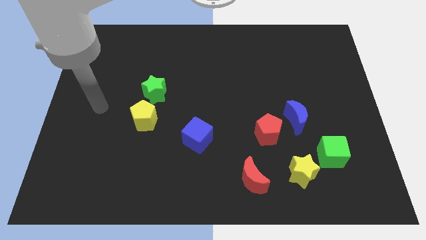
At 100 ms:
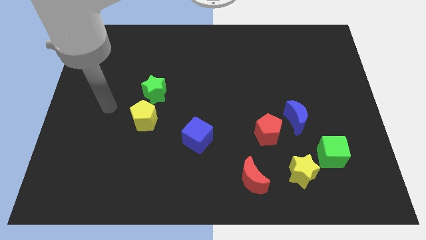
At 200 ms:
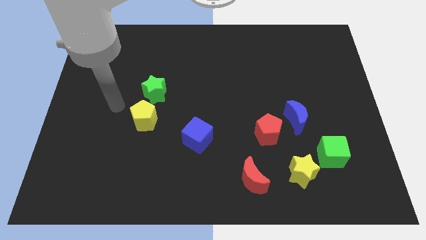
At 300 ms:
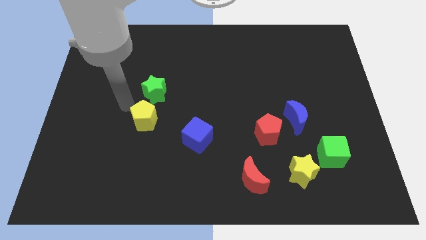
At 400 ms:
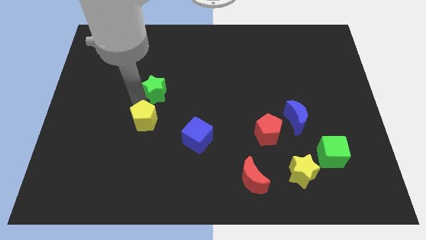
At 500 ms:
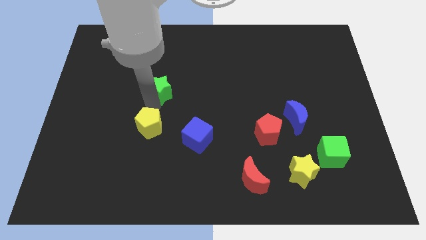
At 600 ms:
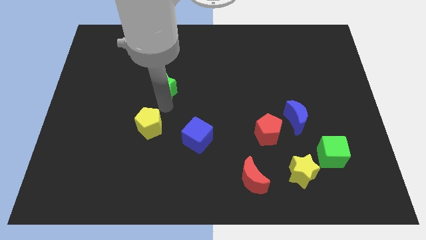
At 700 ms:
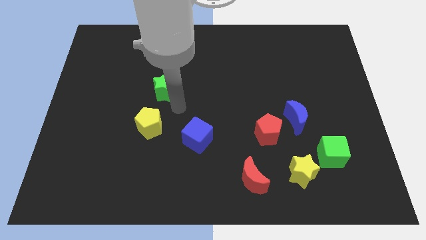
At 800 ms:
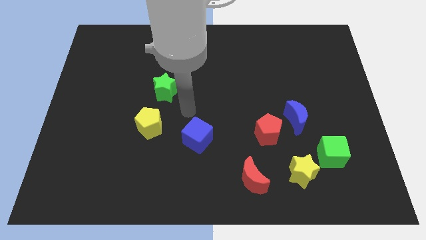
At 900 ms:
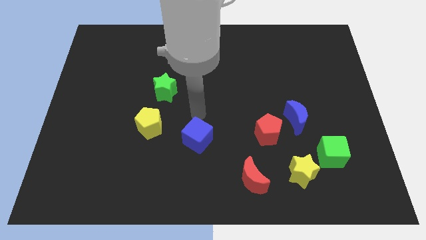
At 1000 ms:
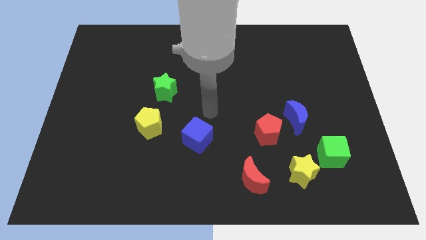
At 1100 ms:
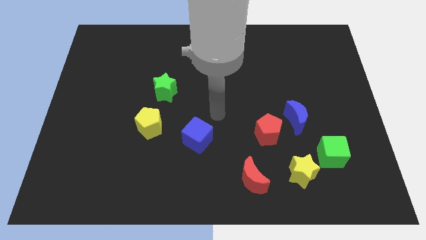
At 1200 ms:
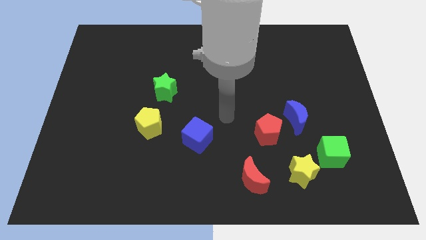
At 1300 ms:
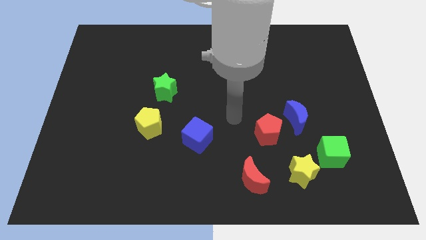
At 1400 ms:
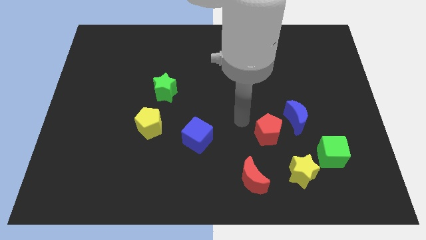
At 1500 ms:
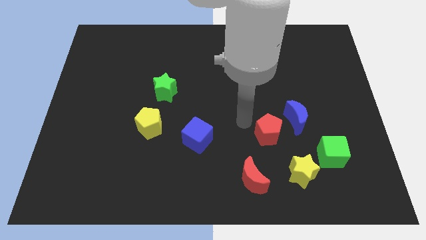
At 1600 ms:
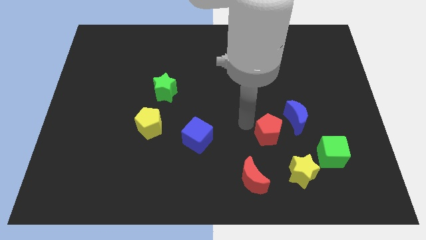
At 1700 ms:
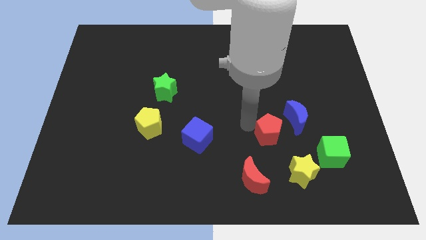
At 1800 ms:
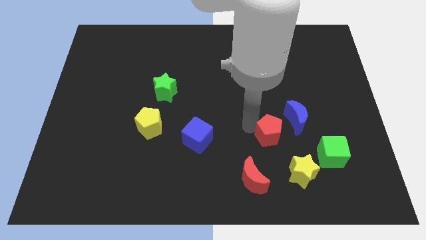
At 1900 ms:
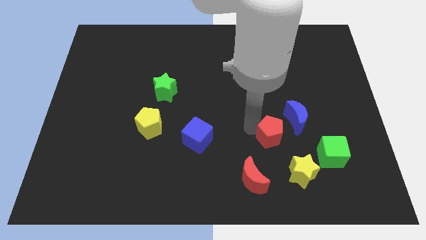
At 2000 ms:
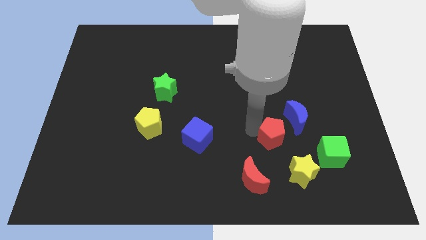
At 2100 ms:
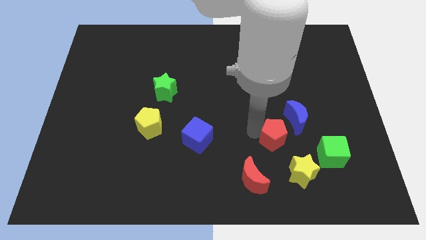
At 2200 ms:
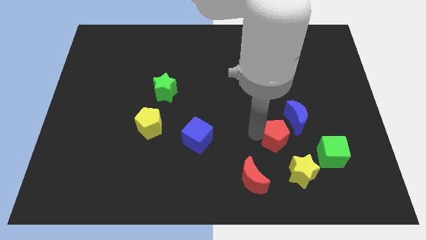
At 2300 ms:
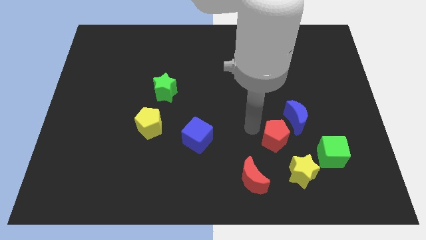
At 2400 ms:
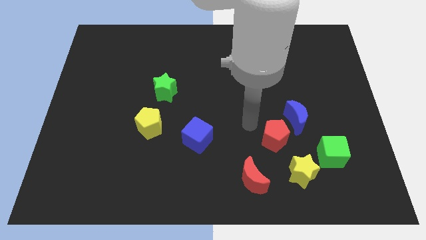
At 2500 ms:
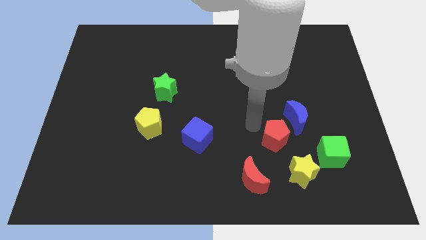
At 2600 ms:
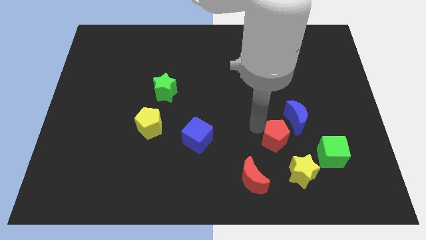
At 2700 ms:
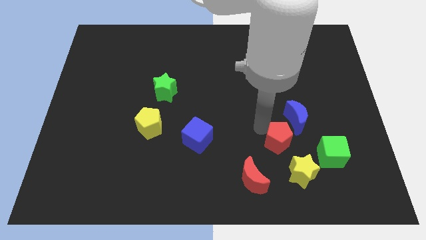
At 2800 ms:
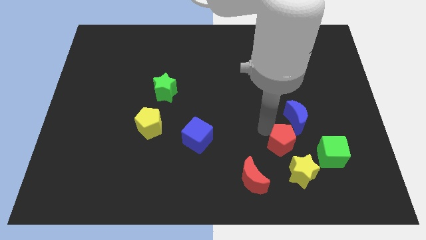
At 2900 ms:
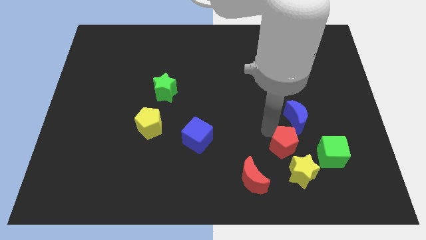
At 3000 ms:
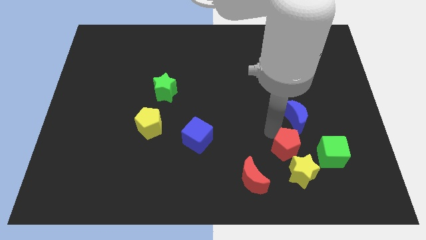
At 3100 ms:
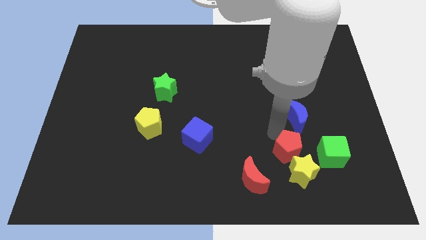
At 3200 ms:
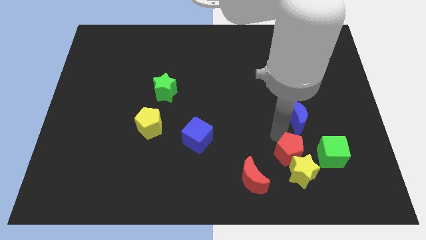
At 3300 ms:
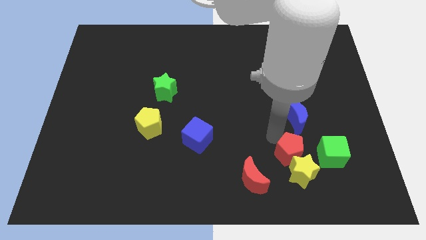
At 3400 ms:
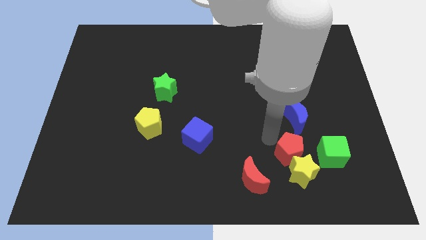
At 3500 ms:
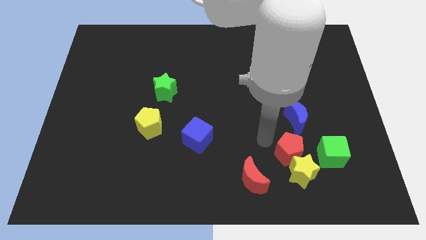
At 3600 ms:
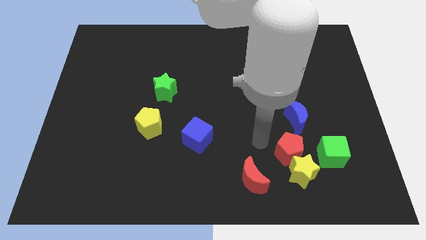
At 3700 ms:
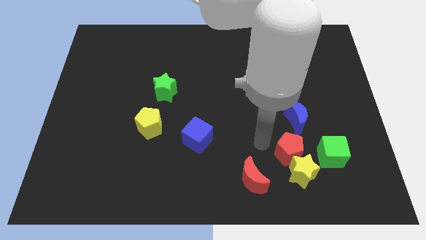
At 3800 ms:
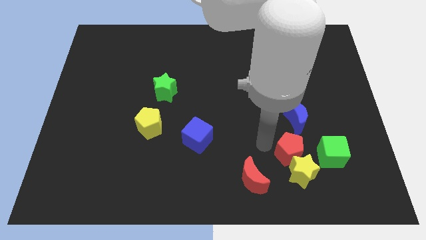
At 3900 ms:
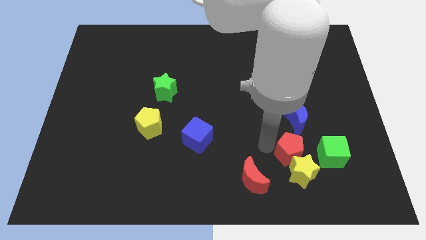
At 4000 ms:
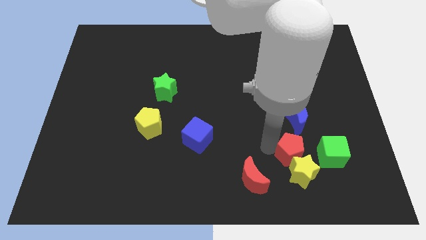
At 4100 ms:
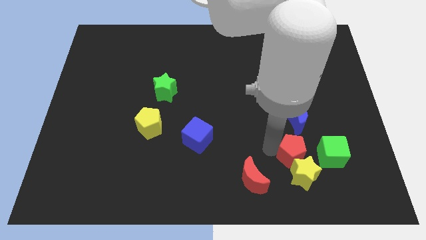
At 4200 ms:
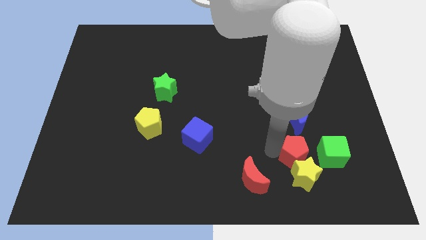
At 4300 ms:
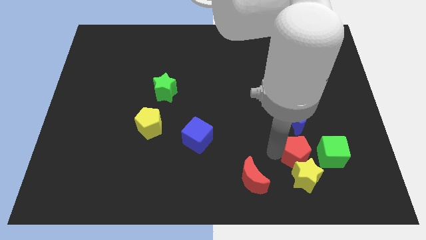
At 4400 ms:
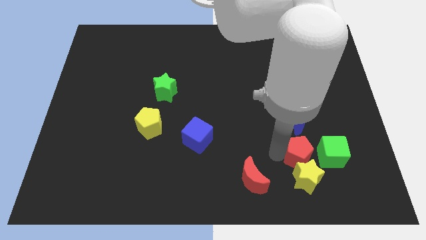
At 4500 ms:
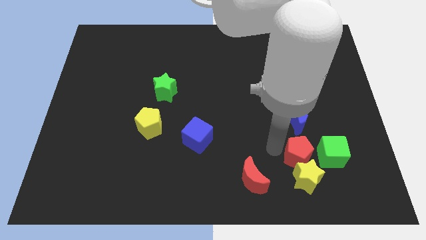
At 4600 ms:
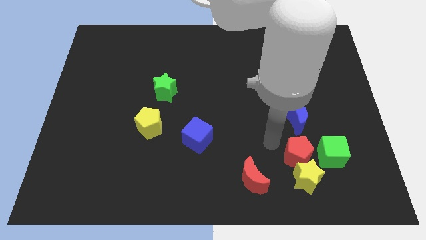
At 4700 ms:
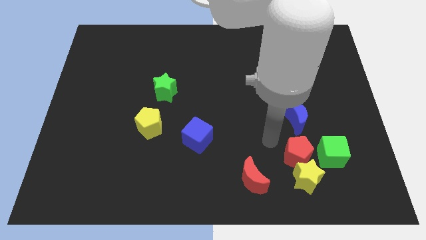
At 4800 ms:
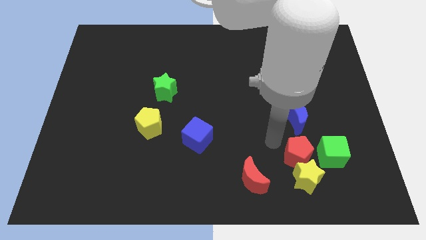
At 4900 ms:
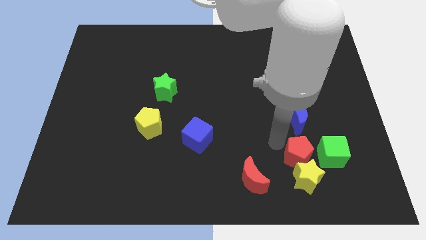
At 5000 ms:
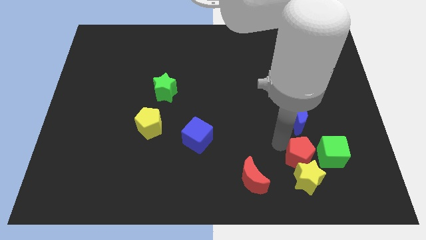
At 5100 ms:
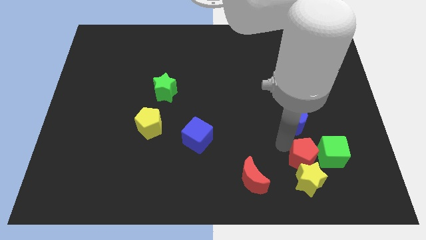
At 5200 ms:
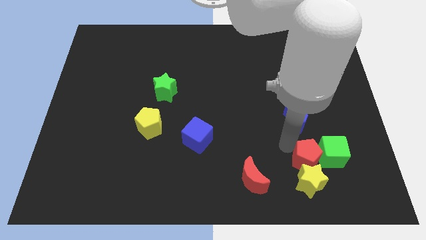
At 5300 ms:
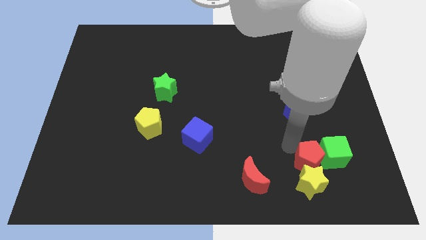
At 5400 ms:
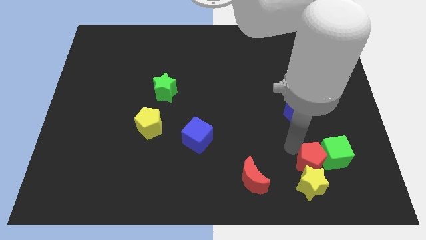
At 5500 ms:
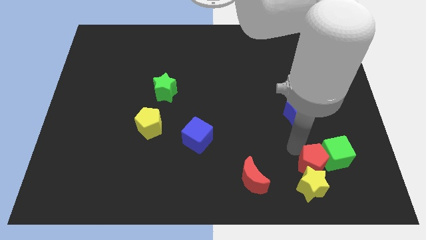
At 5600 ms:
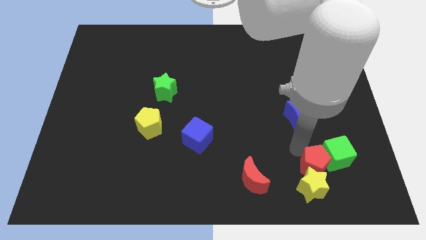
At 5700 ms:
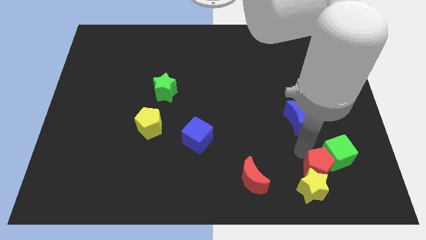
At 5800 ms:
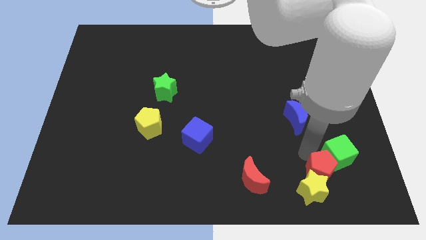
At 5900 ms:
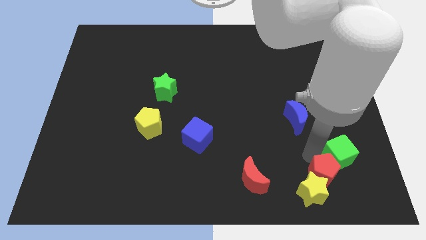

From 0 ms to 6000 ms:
push the red pentagon just right of the yellow star

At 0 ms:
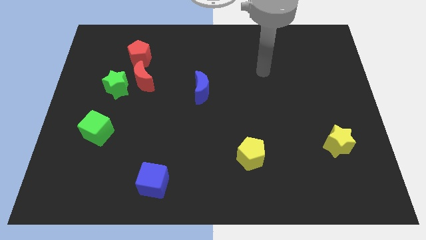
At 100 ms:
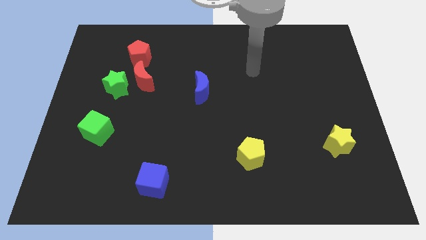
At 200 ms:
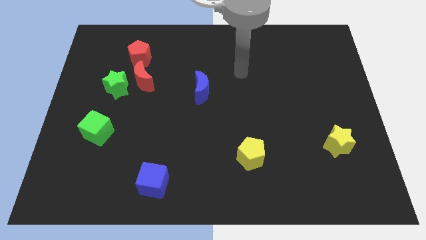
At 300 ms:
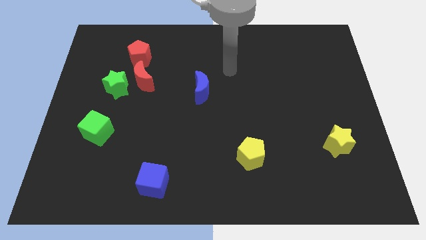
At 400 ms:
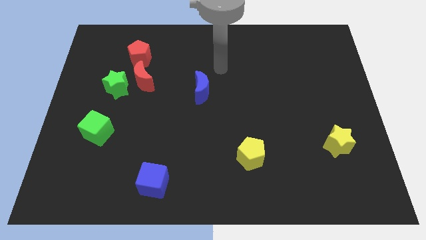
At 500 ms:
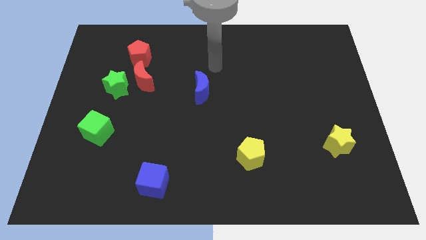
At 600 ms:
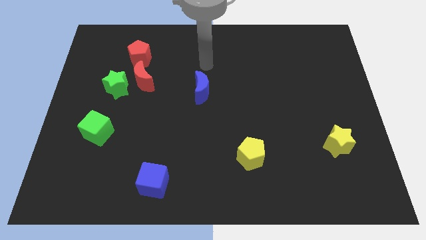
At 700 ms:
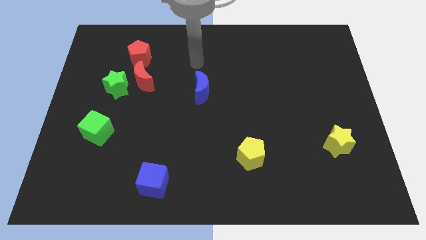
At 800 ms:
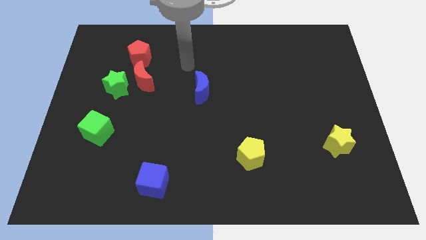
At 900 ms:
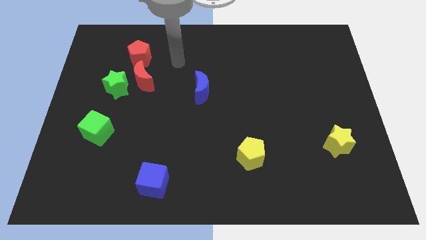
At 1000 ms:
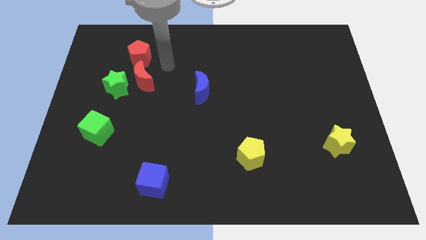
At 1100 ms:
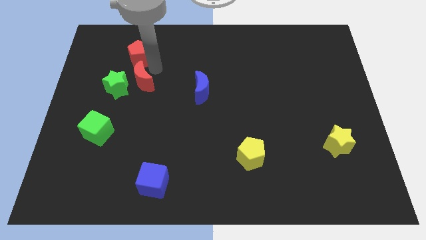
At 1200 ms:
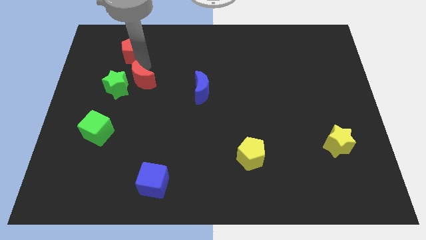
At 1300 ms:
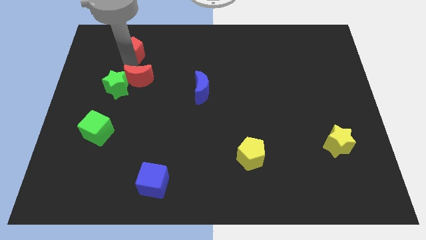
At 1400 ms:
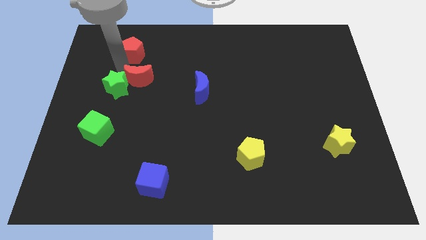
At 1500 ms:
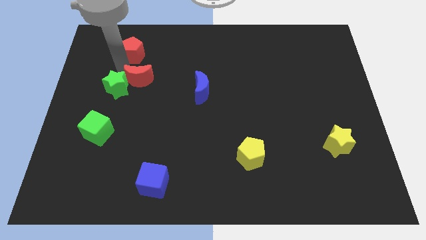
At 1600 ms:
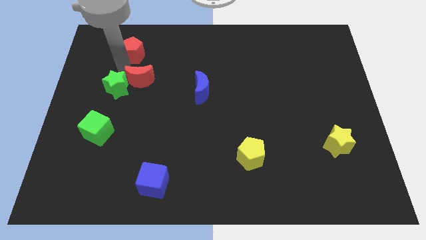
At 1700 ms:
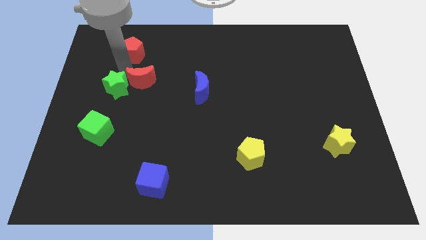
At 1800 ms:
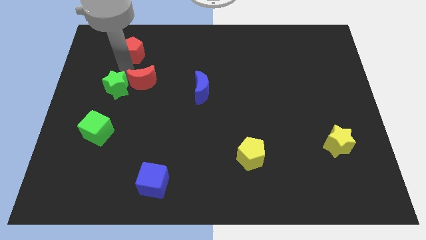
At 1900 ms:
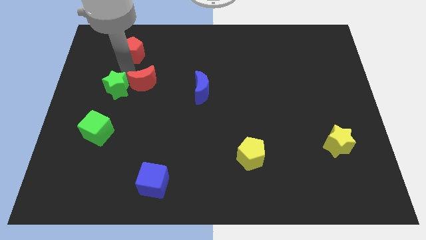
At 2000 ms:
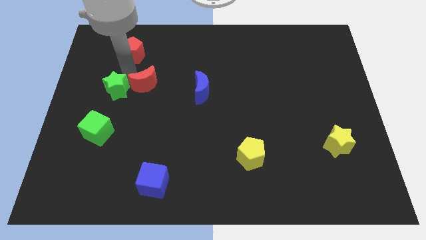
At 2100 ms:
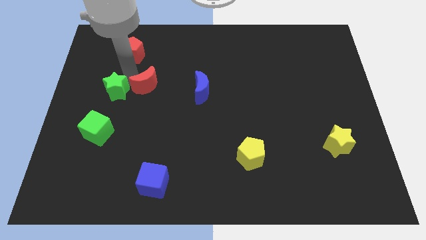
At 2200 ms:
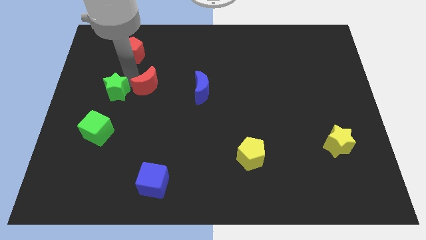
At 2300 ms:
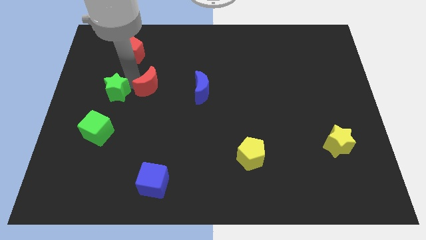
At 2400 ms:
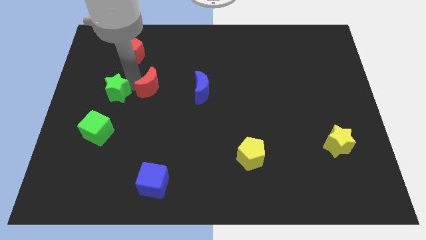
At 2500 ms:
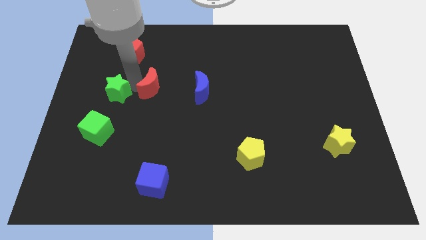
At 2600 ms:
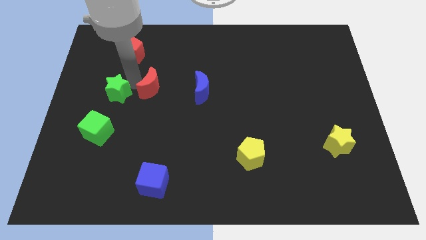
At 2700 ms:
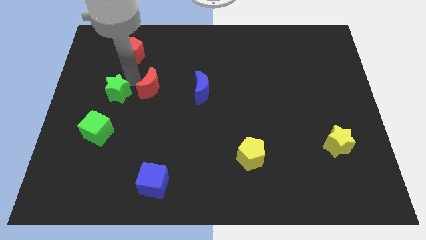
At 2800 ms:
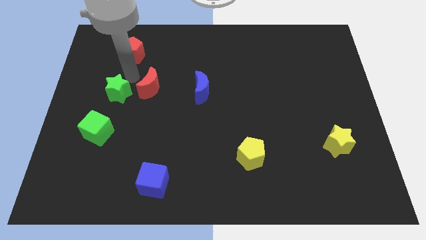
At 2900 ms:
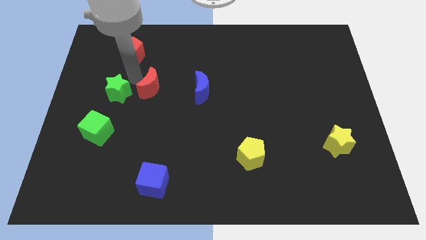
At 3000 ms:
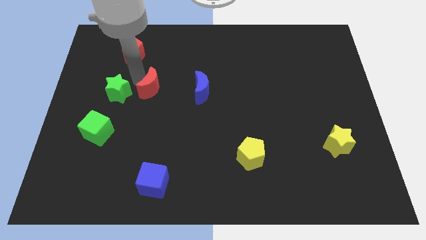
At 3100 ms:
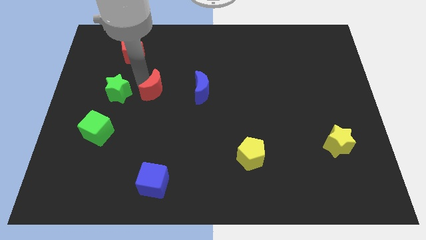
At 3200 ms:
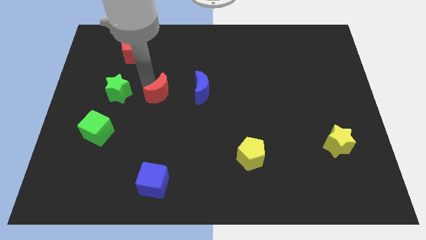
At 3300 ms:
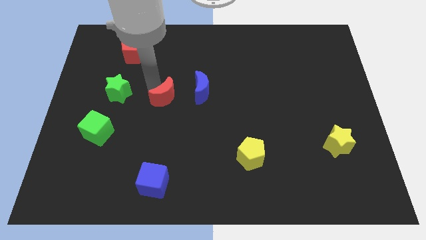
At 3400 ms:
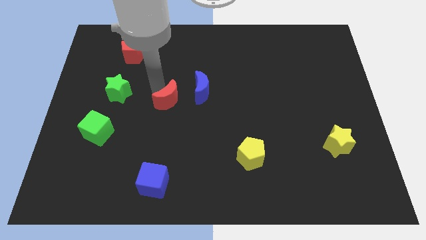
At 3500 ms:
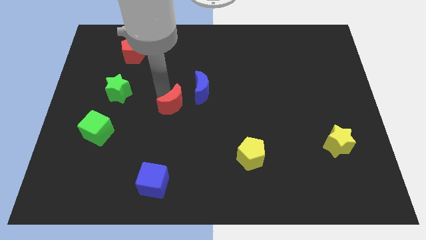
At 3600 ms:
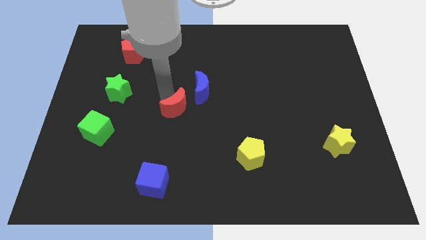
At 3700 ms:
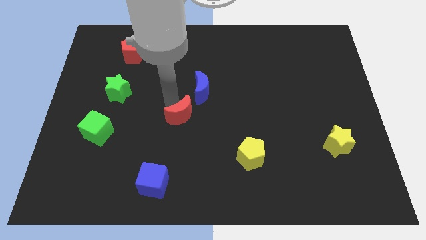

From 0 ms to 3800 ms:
slide the red moon to the bottom side of the blue moon
